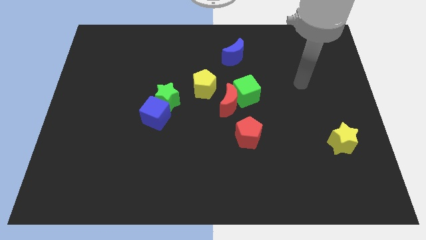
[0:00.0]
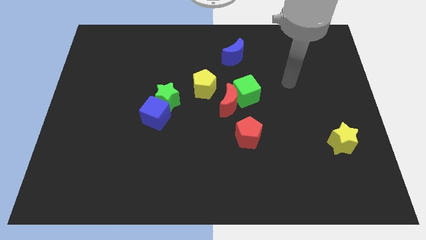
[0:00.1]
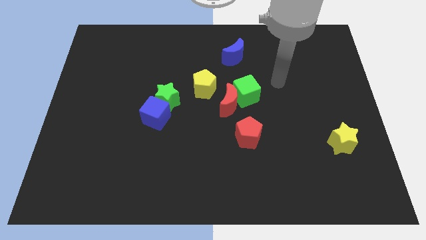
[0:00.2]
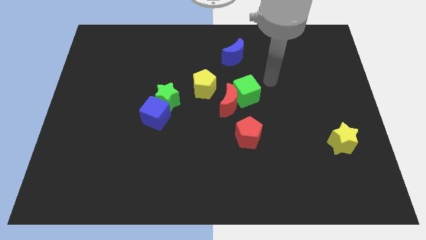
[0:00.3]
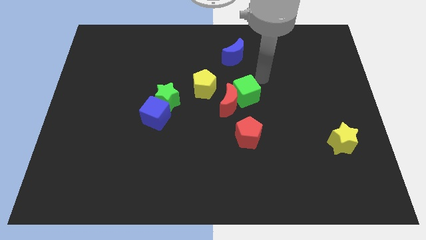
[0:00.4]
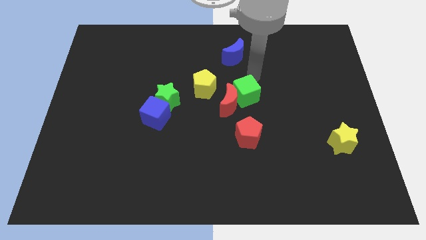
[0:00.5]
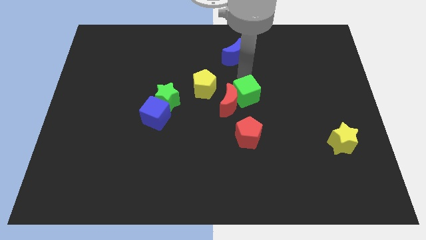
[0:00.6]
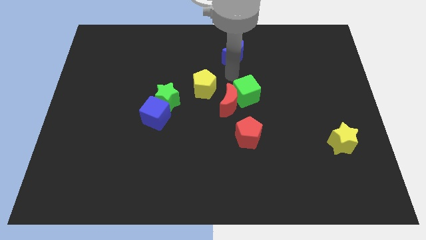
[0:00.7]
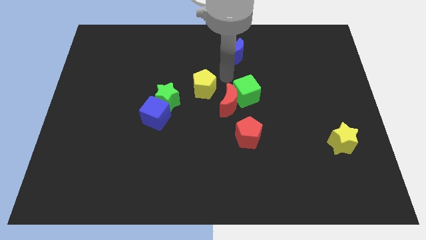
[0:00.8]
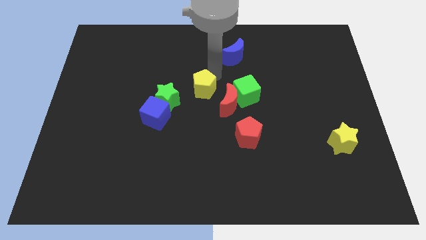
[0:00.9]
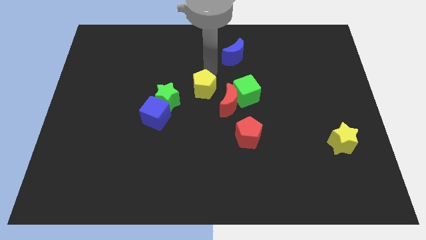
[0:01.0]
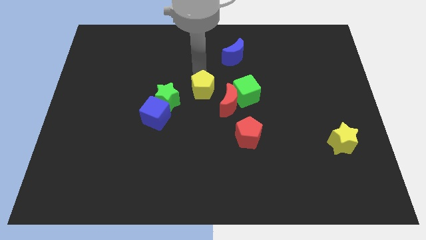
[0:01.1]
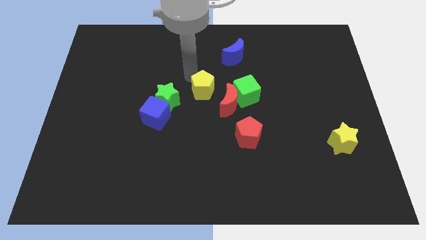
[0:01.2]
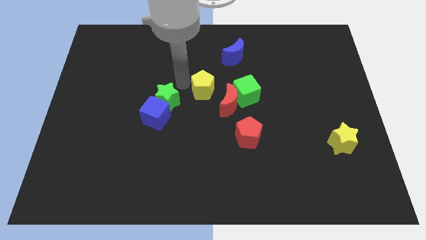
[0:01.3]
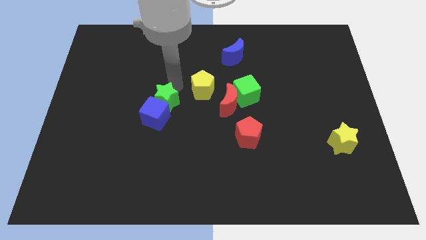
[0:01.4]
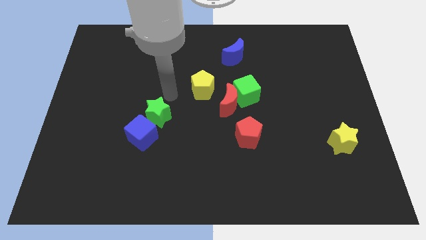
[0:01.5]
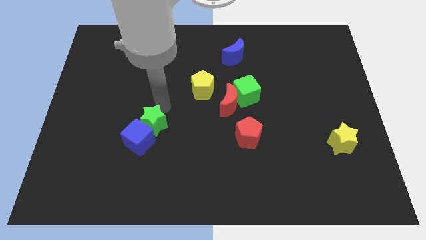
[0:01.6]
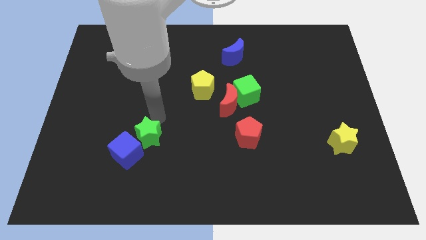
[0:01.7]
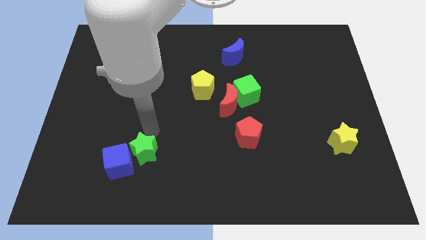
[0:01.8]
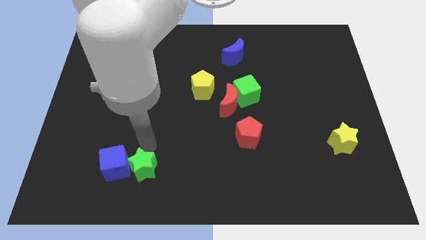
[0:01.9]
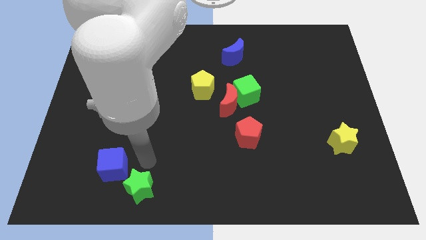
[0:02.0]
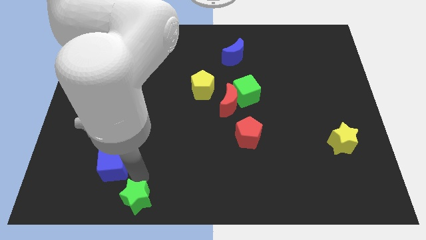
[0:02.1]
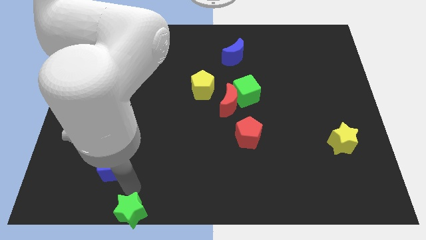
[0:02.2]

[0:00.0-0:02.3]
pull the blue cube apart from the green star

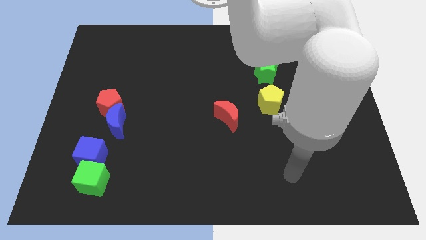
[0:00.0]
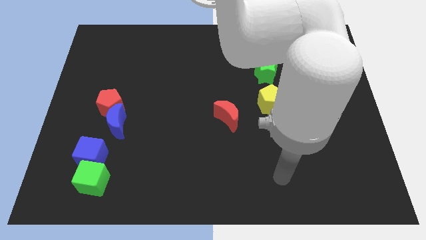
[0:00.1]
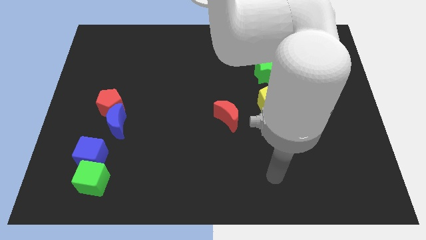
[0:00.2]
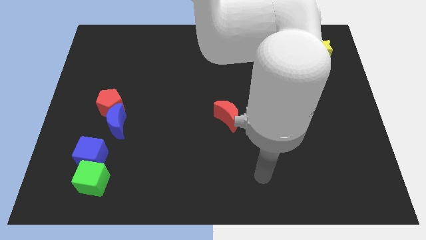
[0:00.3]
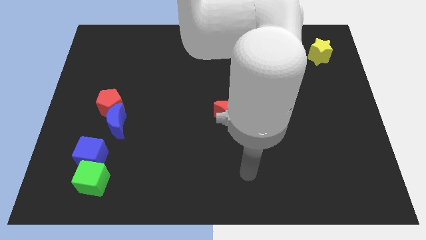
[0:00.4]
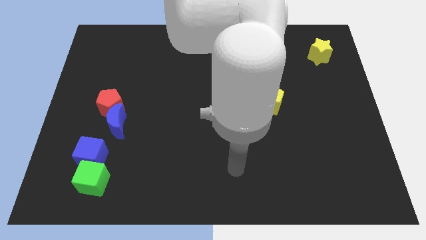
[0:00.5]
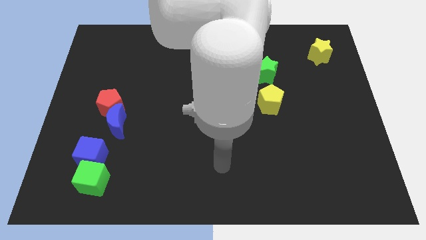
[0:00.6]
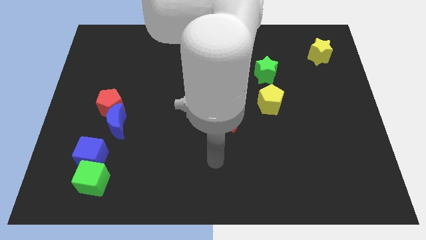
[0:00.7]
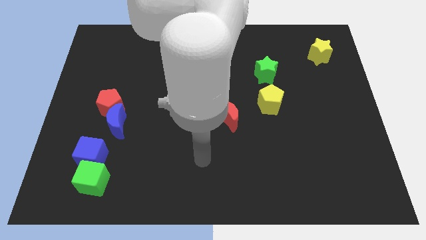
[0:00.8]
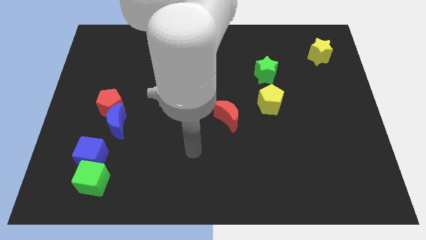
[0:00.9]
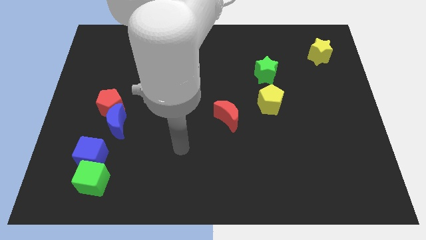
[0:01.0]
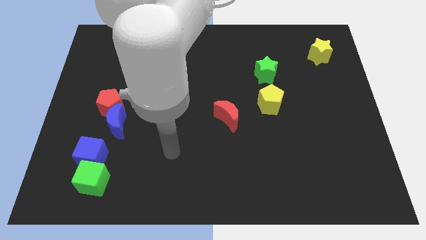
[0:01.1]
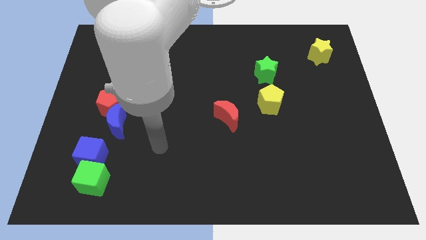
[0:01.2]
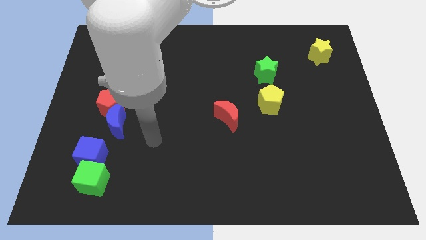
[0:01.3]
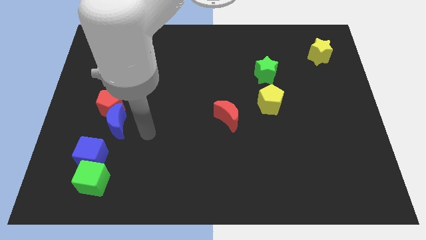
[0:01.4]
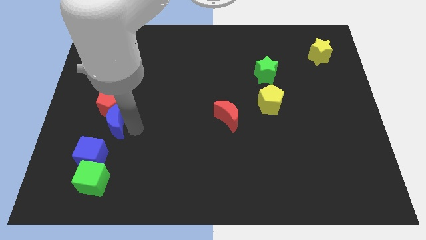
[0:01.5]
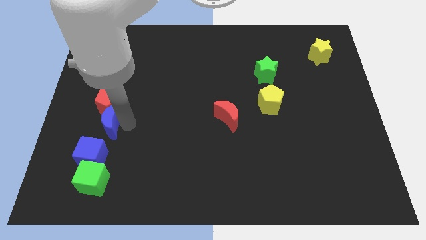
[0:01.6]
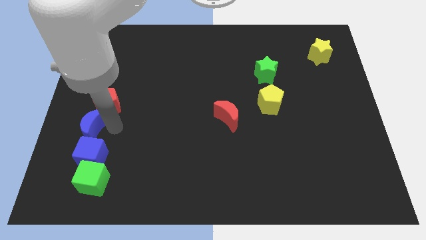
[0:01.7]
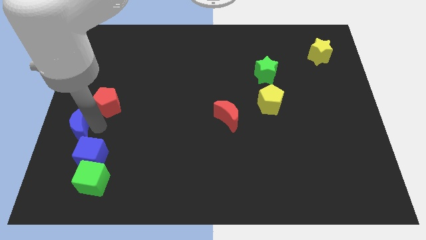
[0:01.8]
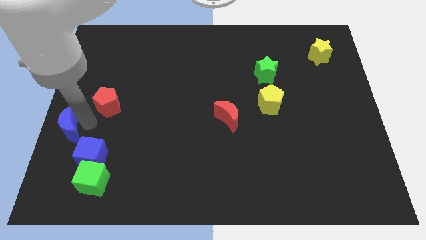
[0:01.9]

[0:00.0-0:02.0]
separate the red pentagon from the blue moon

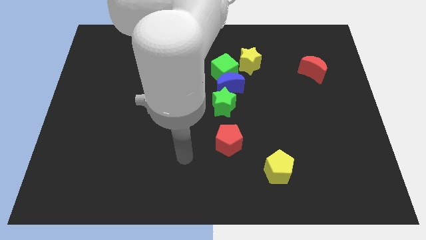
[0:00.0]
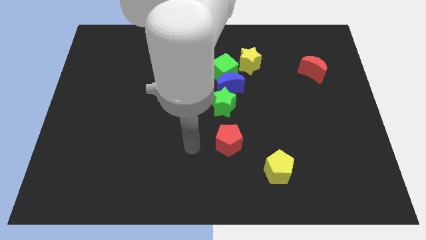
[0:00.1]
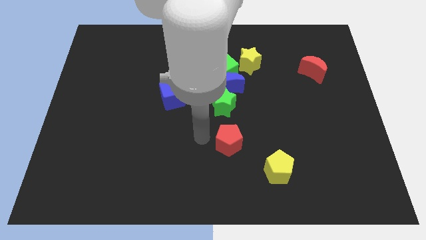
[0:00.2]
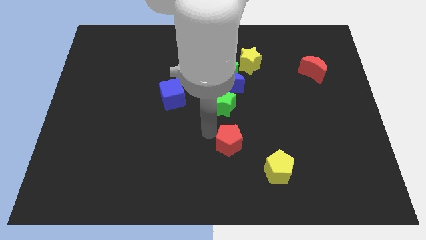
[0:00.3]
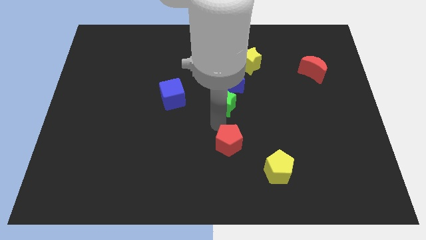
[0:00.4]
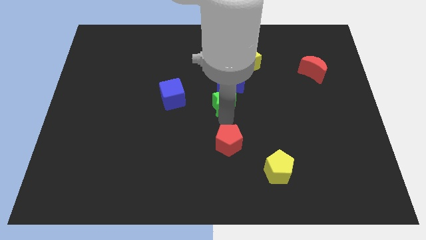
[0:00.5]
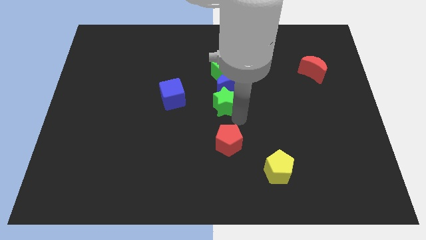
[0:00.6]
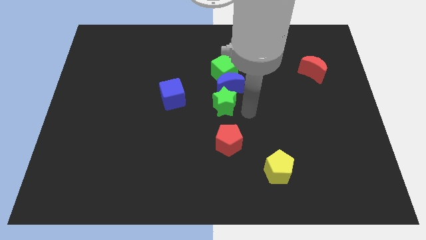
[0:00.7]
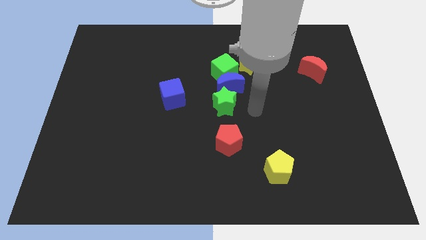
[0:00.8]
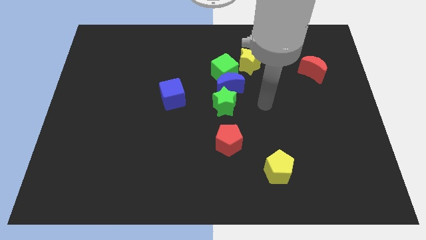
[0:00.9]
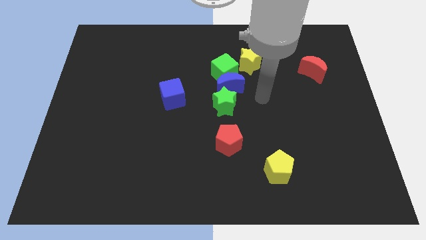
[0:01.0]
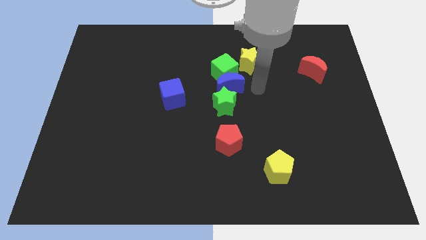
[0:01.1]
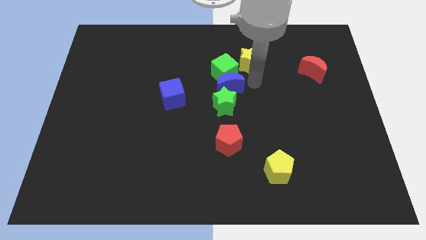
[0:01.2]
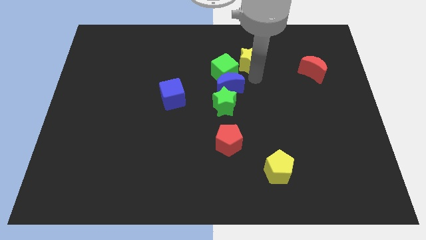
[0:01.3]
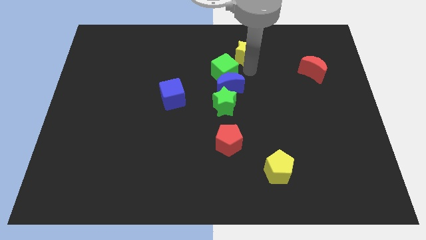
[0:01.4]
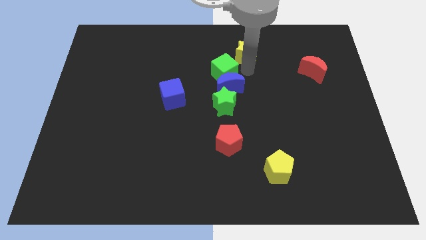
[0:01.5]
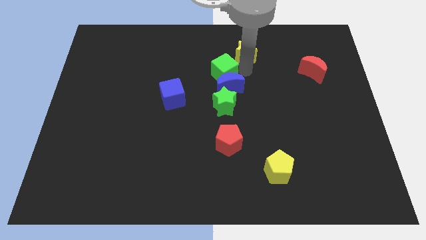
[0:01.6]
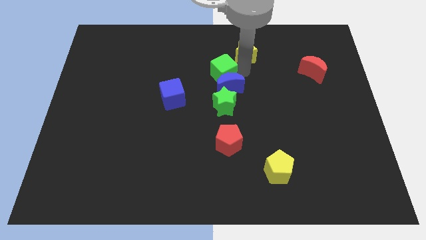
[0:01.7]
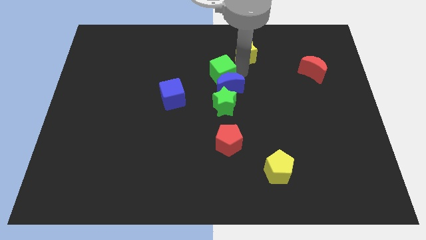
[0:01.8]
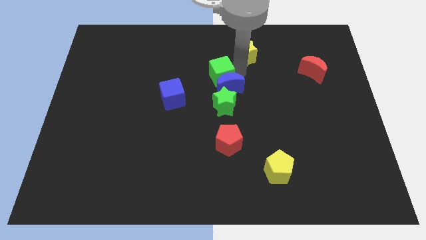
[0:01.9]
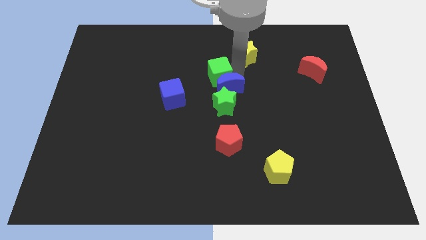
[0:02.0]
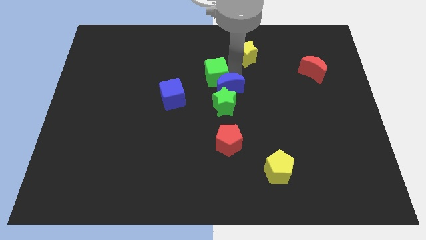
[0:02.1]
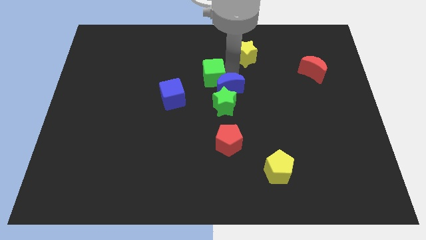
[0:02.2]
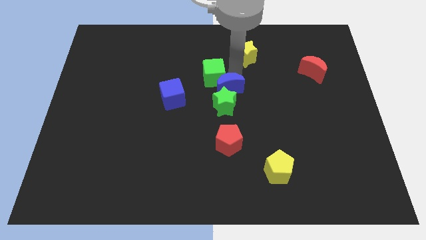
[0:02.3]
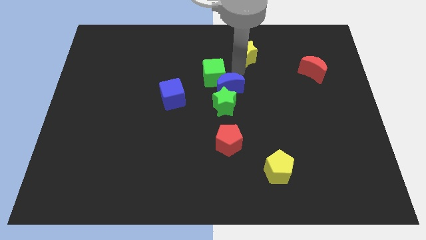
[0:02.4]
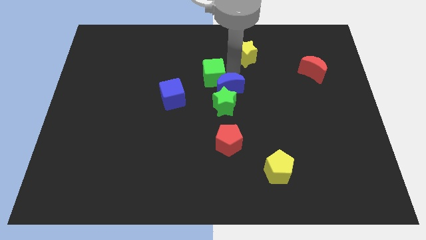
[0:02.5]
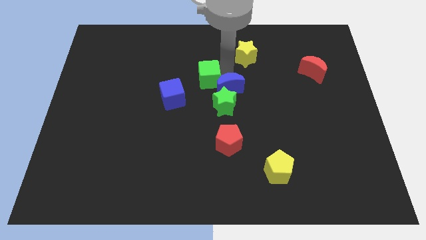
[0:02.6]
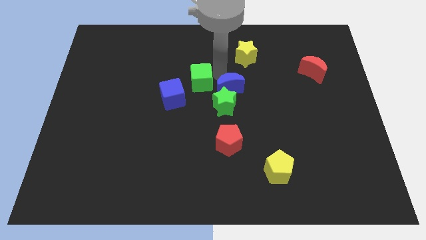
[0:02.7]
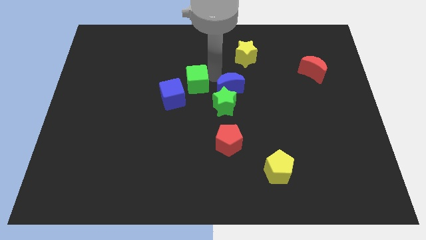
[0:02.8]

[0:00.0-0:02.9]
pull the green cube apart from the blue moon and yellow star

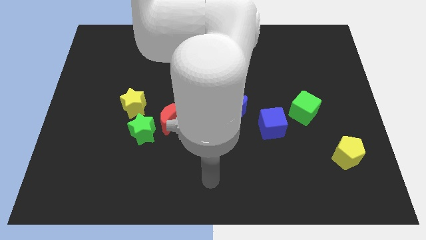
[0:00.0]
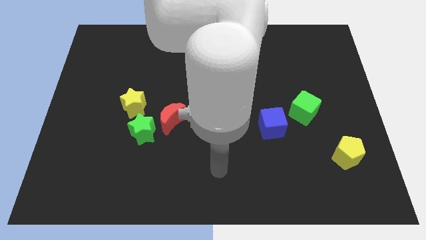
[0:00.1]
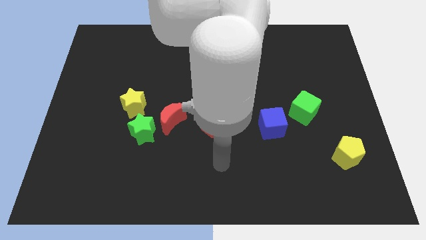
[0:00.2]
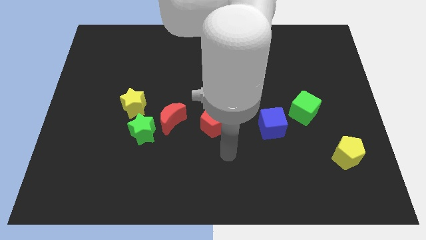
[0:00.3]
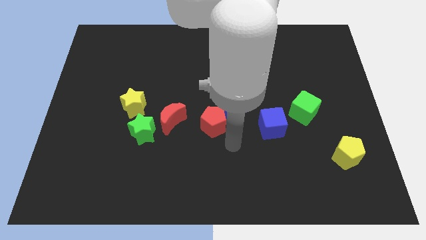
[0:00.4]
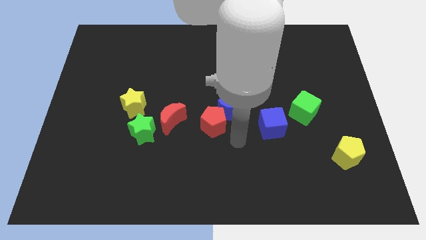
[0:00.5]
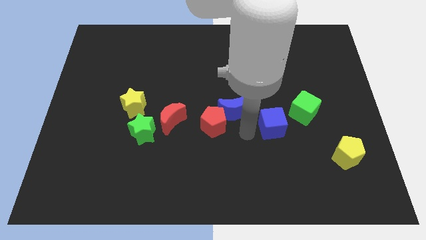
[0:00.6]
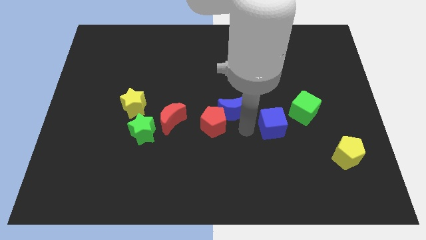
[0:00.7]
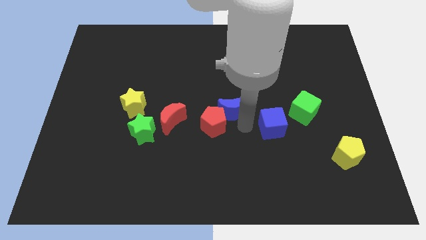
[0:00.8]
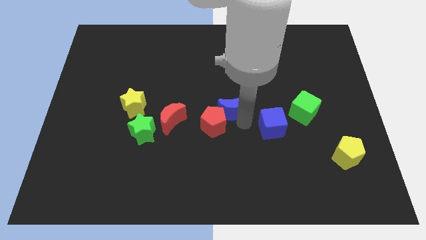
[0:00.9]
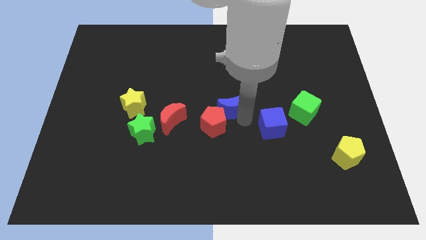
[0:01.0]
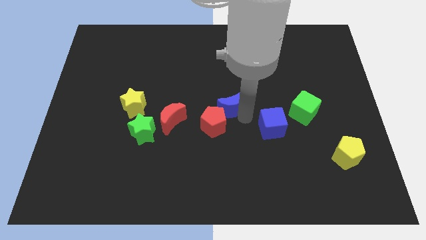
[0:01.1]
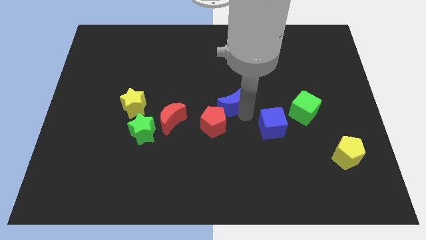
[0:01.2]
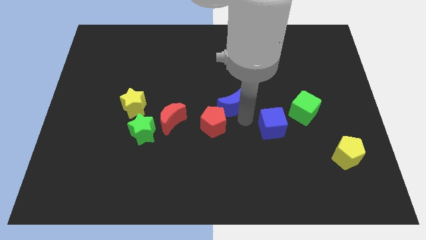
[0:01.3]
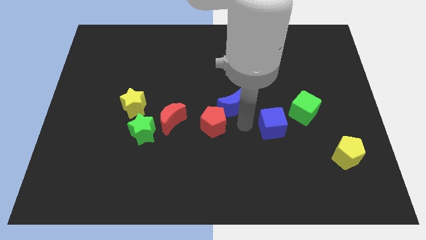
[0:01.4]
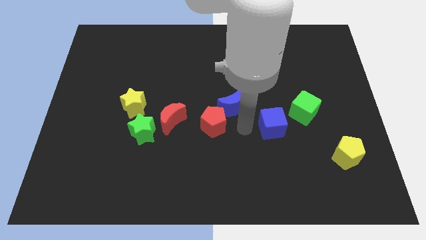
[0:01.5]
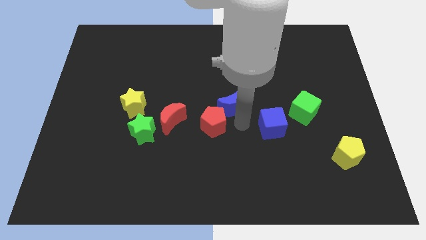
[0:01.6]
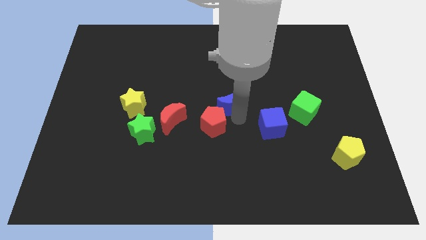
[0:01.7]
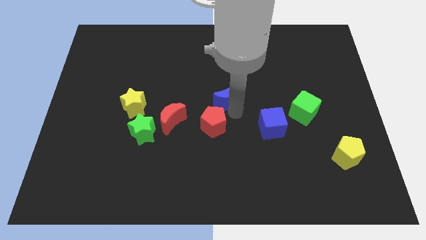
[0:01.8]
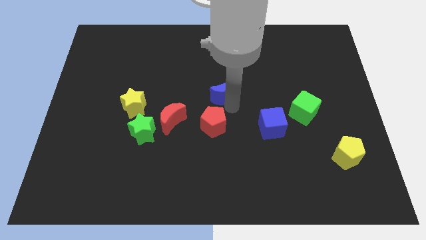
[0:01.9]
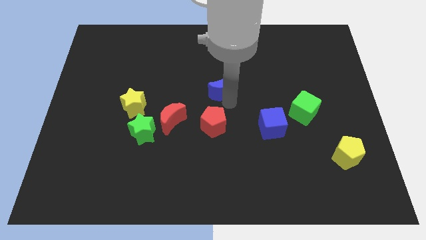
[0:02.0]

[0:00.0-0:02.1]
move the blue moon away from the red pentagon and blue cube
